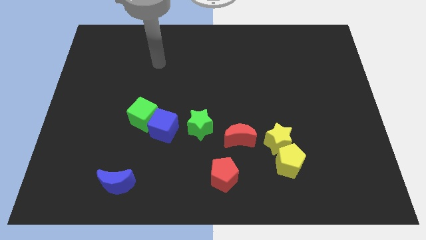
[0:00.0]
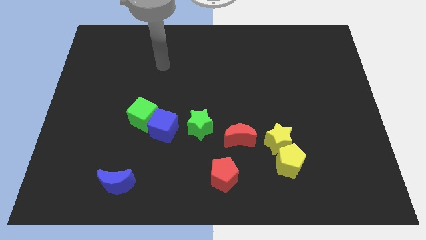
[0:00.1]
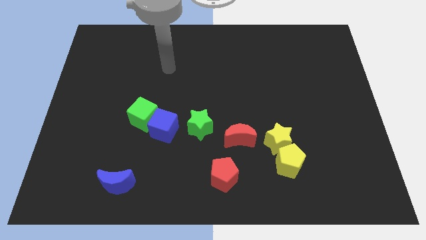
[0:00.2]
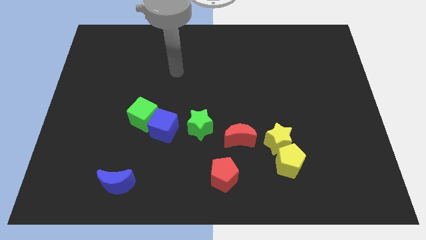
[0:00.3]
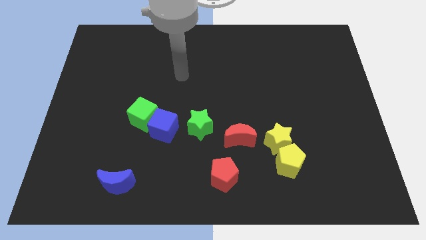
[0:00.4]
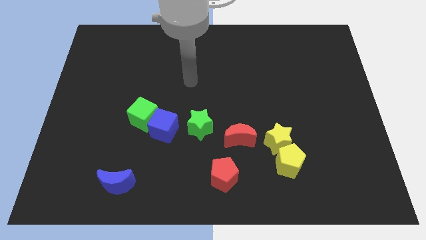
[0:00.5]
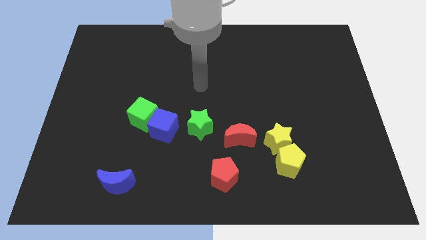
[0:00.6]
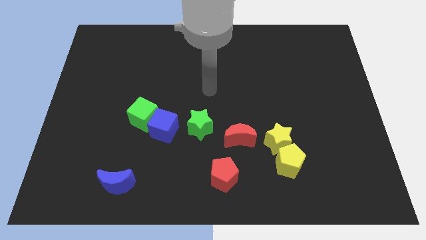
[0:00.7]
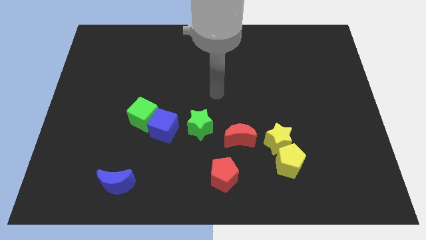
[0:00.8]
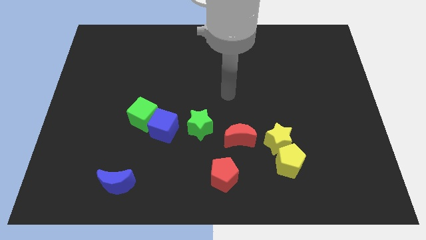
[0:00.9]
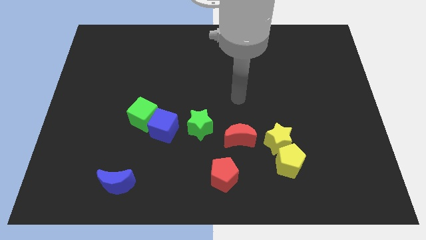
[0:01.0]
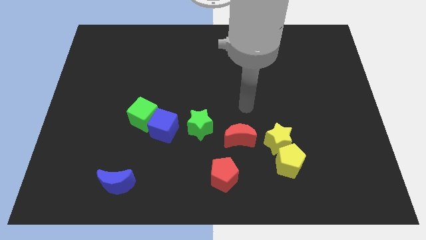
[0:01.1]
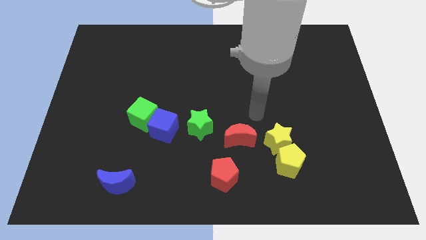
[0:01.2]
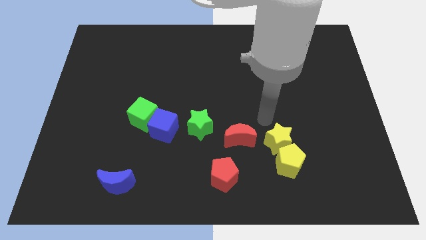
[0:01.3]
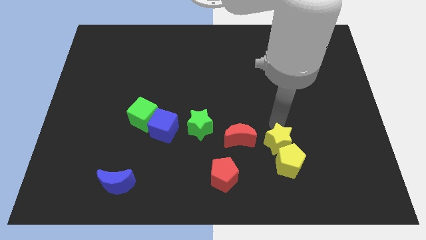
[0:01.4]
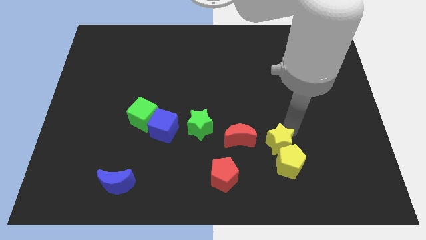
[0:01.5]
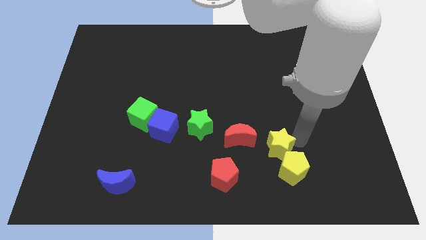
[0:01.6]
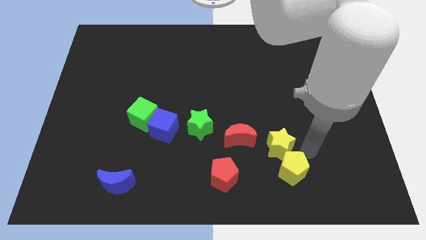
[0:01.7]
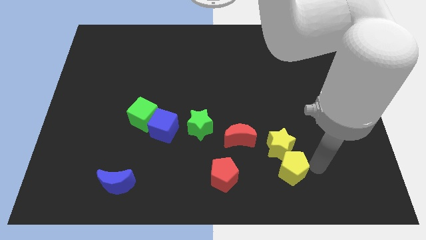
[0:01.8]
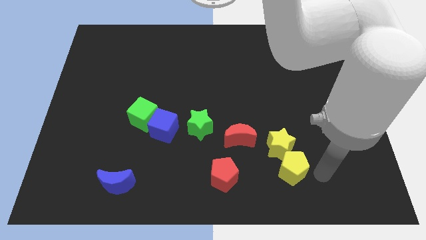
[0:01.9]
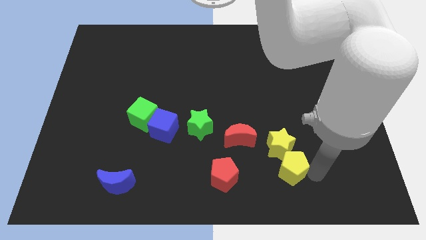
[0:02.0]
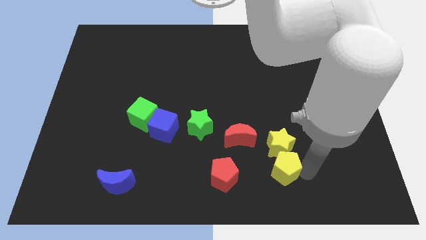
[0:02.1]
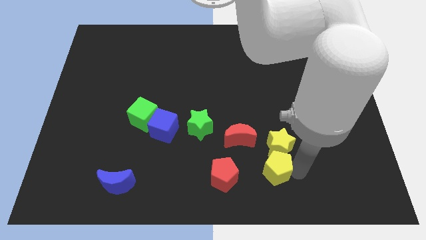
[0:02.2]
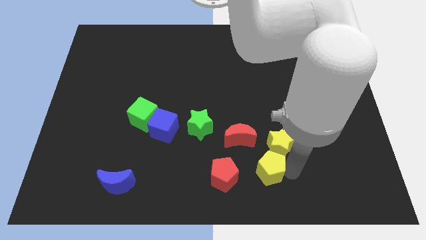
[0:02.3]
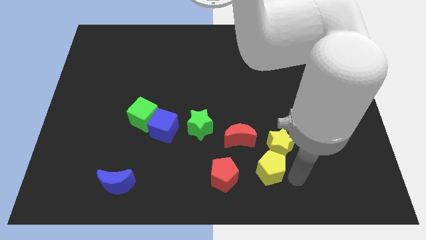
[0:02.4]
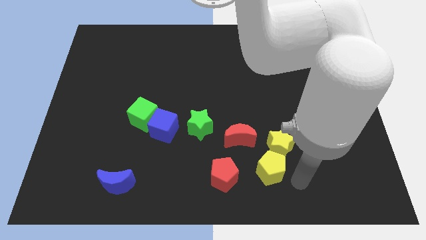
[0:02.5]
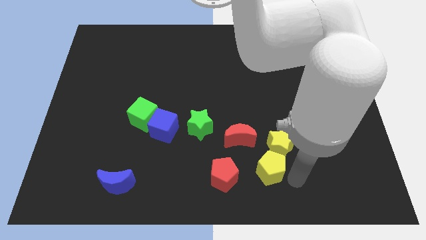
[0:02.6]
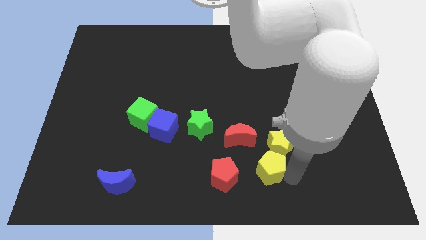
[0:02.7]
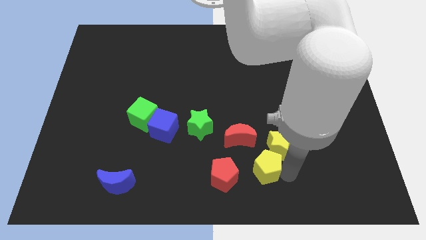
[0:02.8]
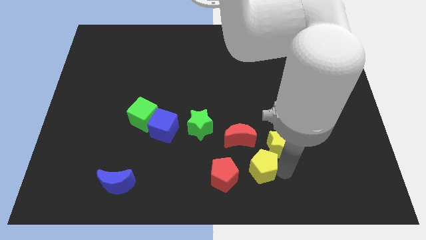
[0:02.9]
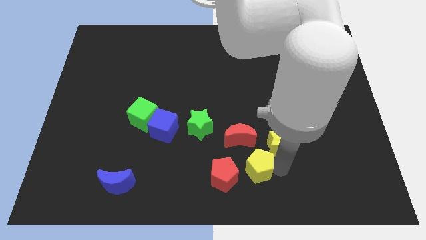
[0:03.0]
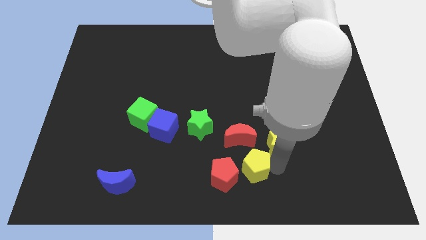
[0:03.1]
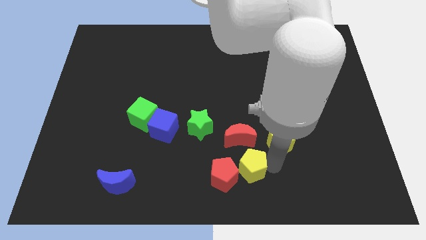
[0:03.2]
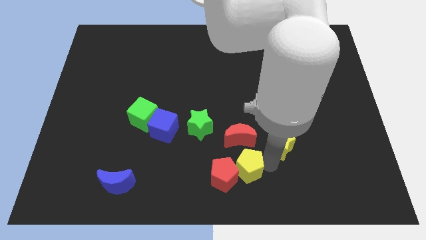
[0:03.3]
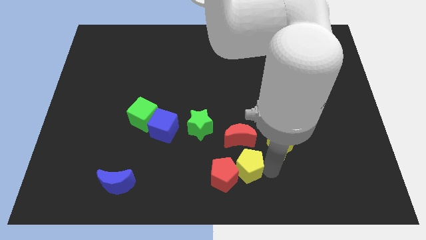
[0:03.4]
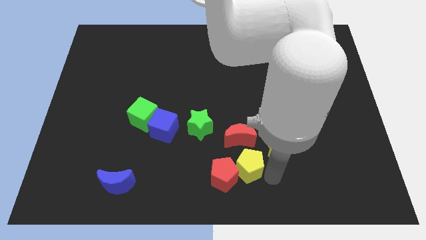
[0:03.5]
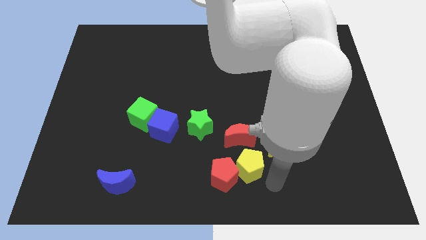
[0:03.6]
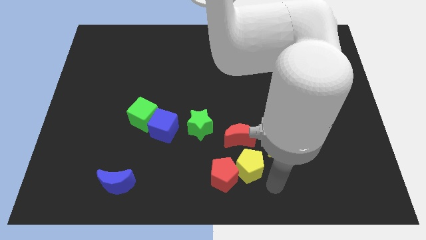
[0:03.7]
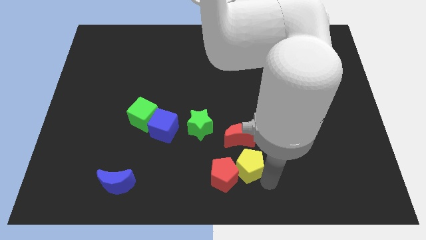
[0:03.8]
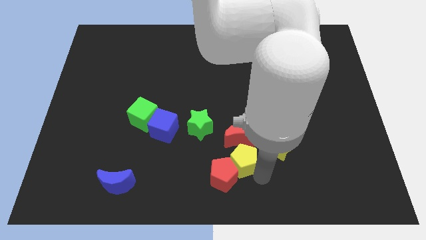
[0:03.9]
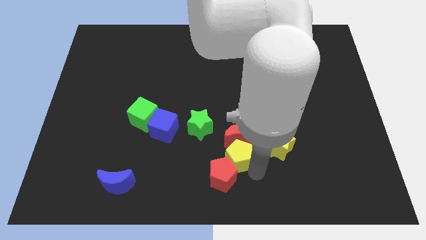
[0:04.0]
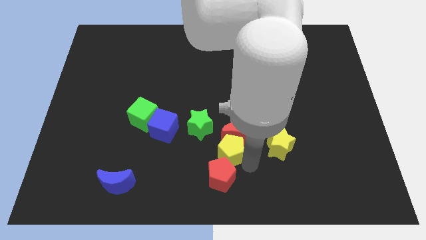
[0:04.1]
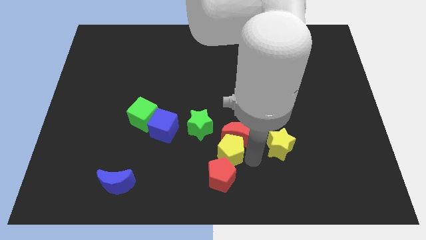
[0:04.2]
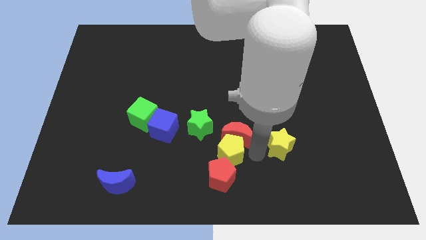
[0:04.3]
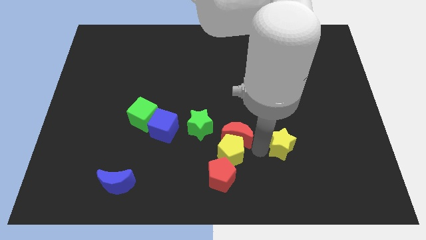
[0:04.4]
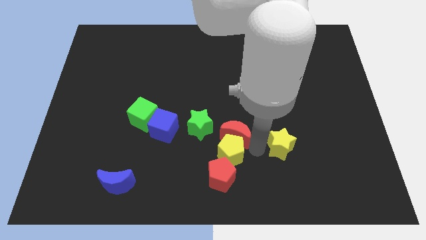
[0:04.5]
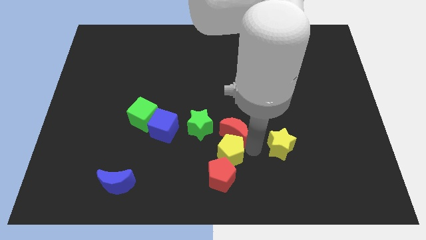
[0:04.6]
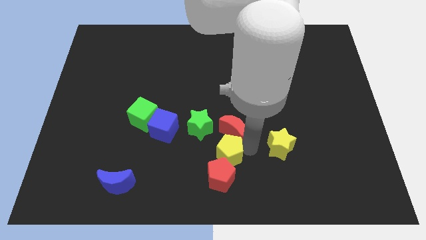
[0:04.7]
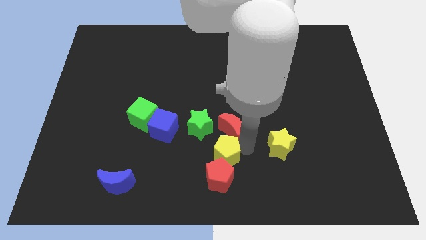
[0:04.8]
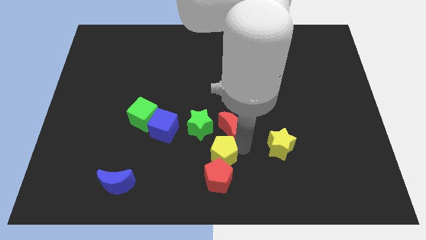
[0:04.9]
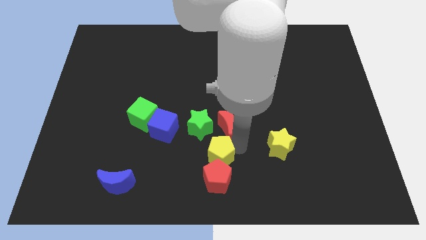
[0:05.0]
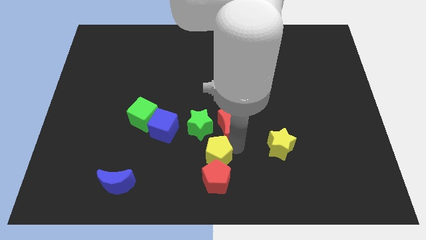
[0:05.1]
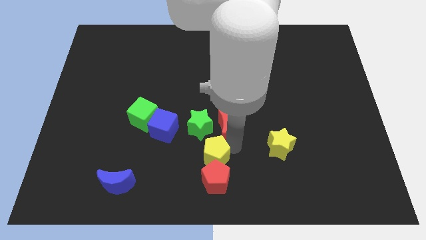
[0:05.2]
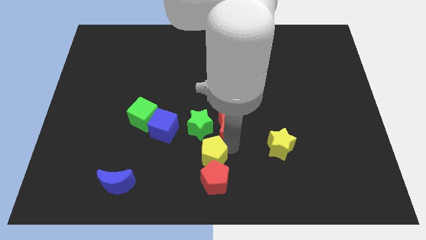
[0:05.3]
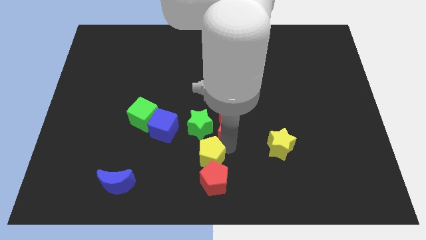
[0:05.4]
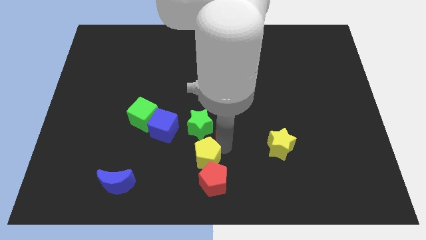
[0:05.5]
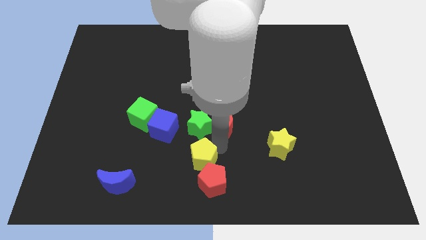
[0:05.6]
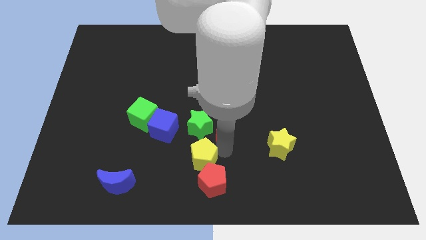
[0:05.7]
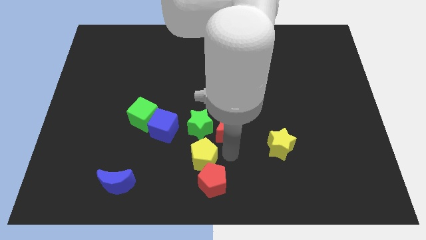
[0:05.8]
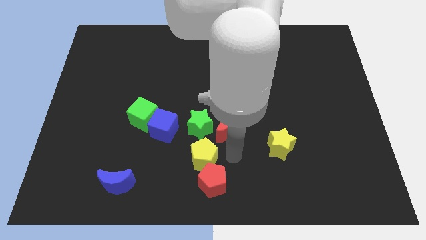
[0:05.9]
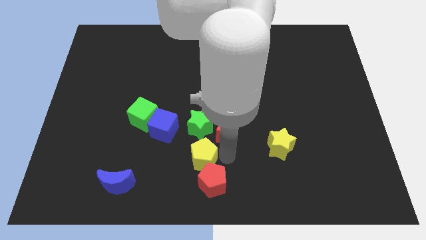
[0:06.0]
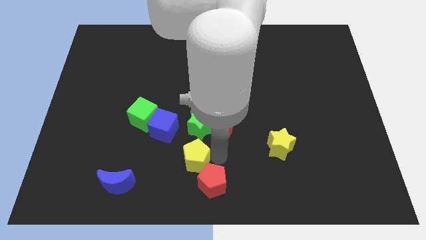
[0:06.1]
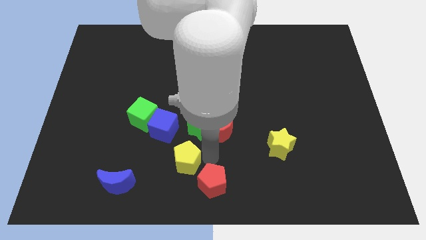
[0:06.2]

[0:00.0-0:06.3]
slide the yellow pentagon to the left

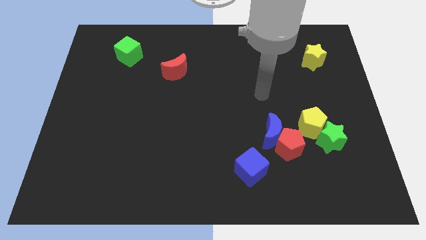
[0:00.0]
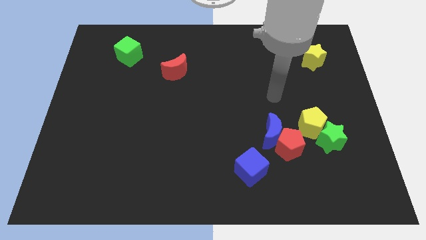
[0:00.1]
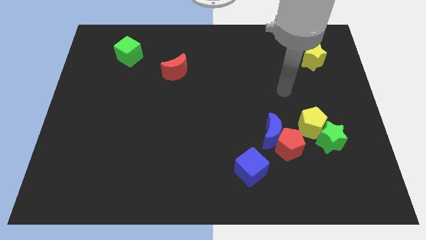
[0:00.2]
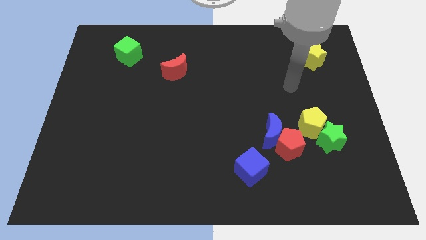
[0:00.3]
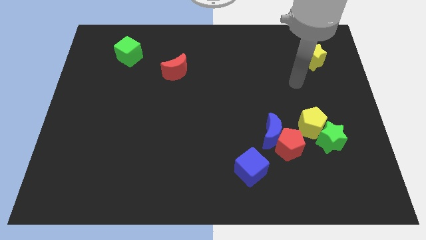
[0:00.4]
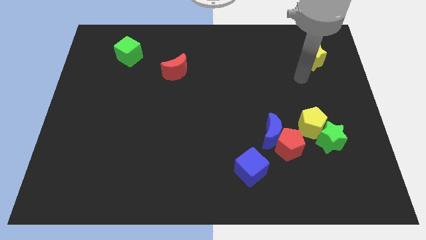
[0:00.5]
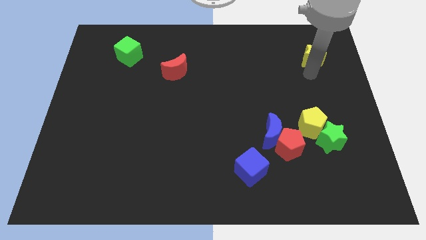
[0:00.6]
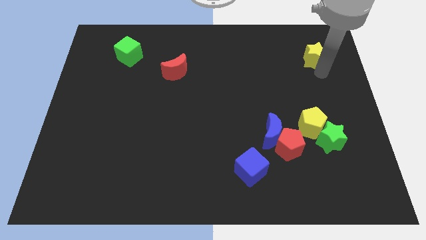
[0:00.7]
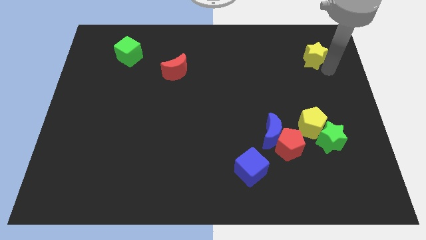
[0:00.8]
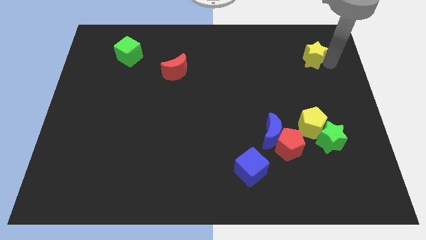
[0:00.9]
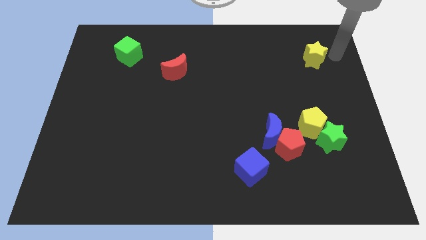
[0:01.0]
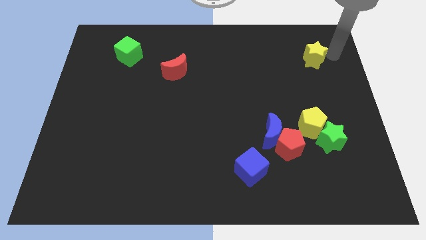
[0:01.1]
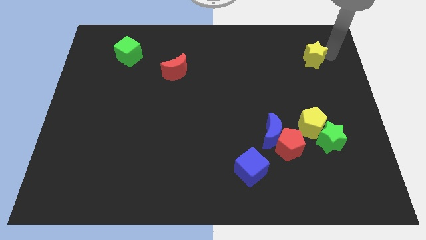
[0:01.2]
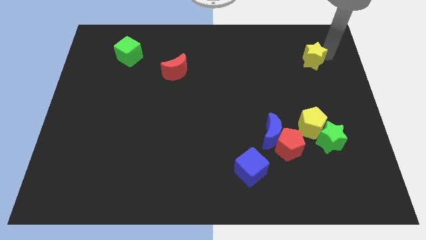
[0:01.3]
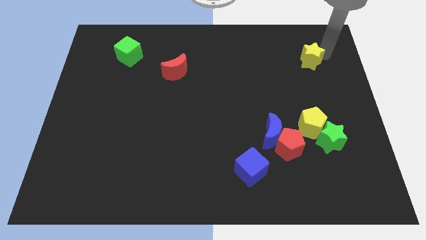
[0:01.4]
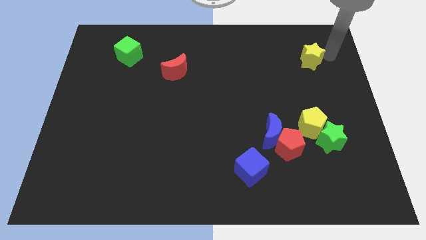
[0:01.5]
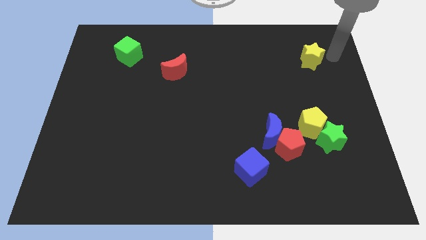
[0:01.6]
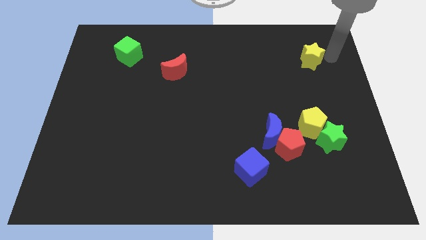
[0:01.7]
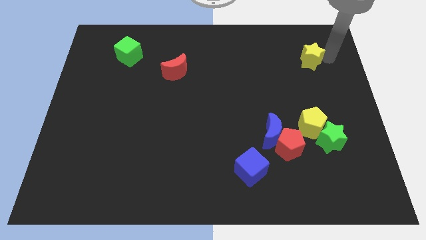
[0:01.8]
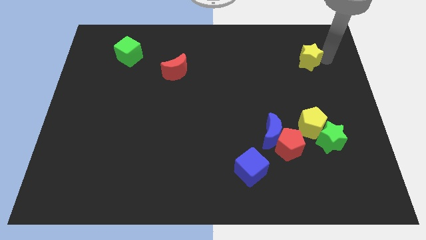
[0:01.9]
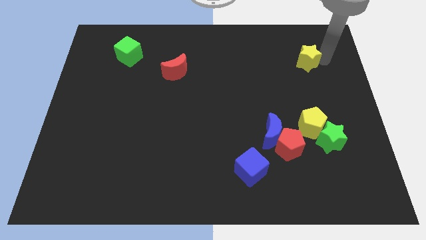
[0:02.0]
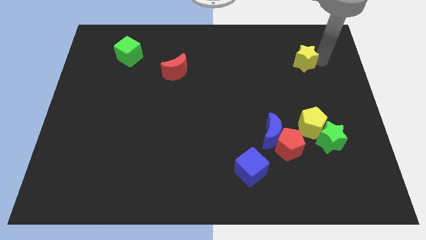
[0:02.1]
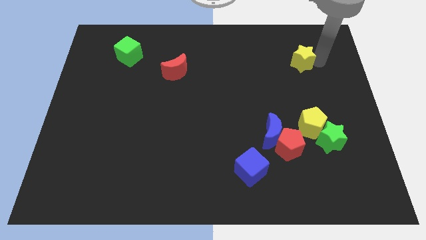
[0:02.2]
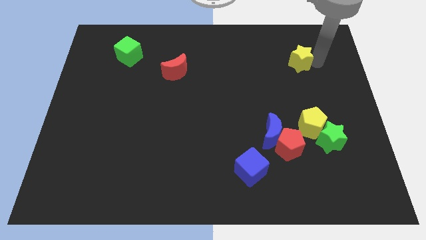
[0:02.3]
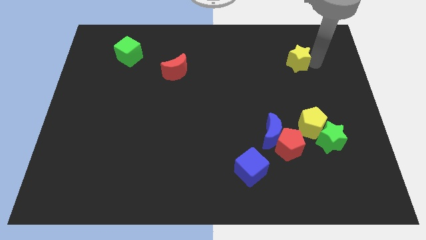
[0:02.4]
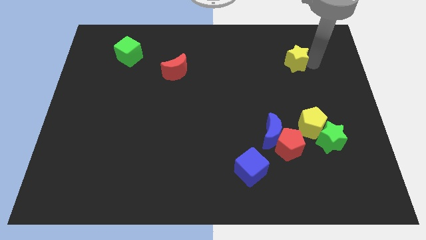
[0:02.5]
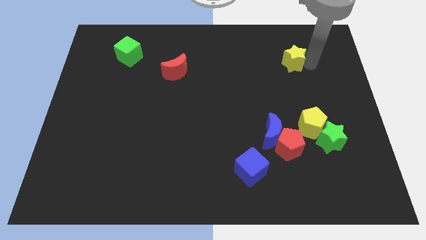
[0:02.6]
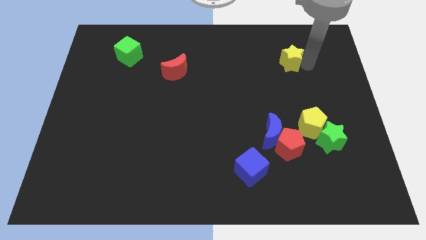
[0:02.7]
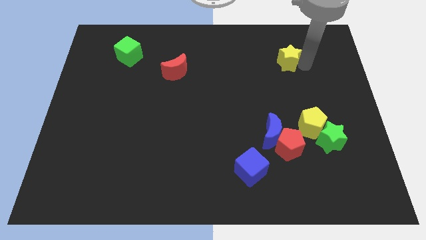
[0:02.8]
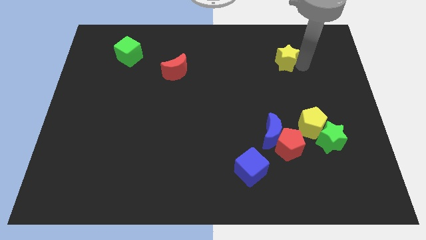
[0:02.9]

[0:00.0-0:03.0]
slightly move the yellow star to the left
